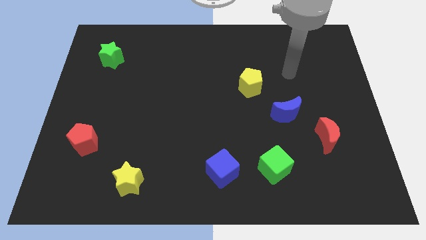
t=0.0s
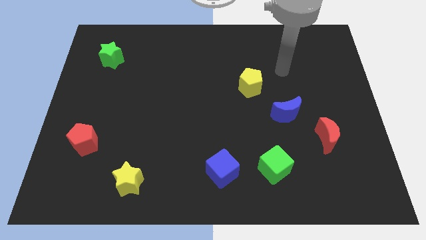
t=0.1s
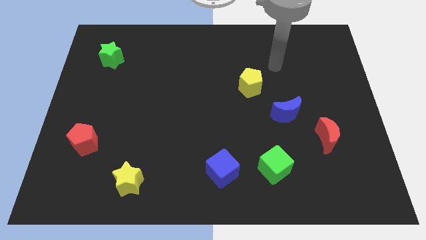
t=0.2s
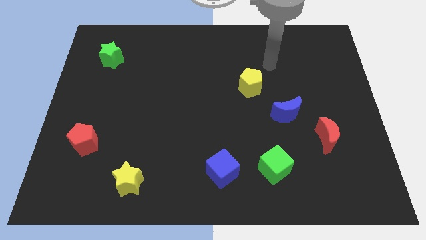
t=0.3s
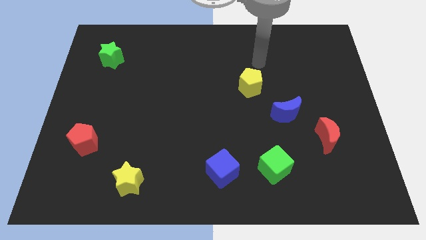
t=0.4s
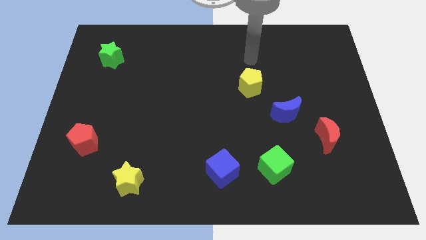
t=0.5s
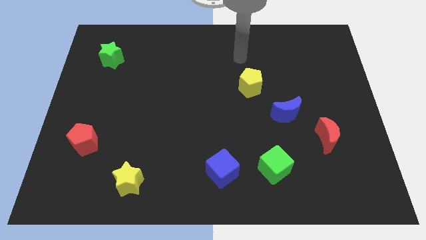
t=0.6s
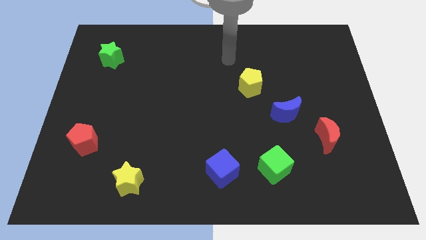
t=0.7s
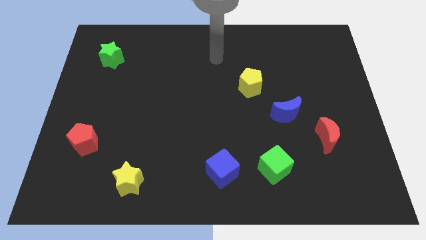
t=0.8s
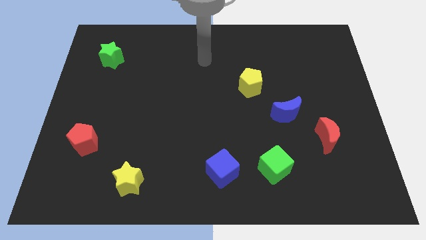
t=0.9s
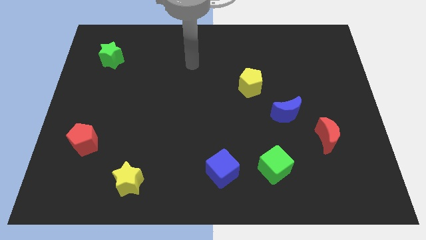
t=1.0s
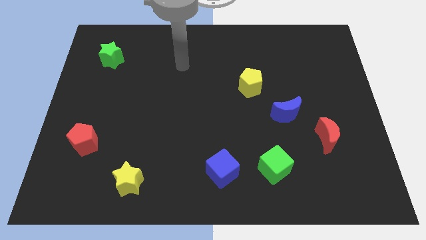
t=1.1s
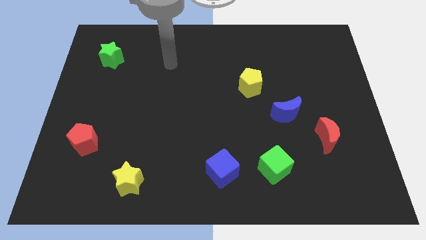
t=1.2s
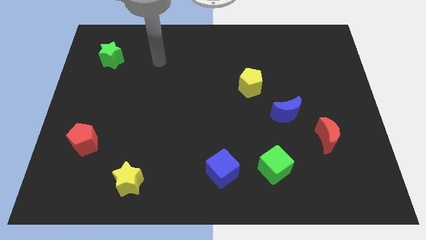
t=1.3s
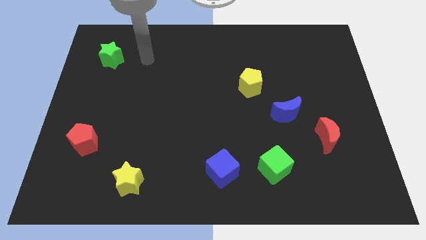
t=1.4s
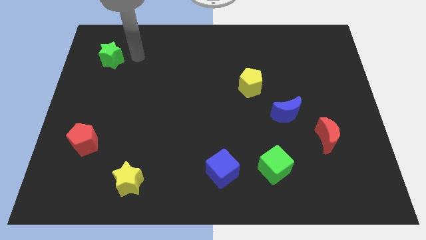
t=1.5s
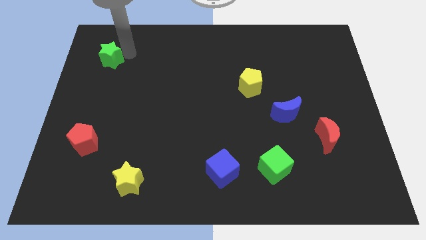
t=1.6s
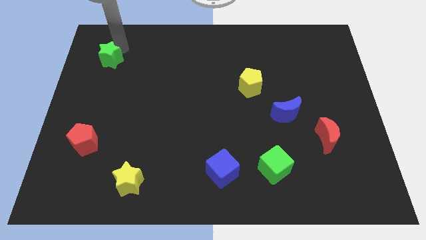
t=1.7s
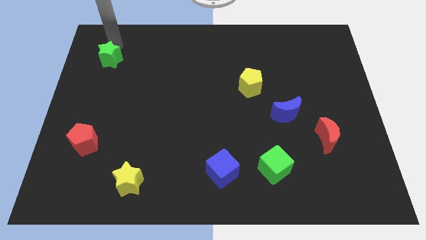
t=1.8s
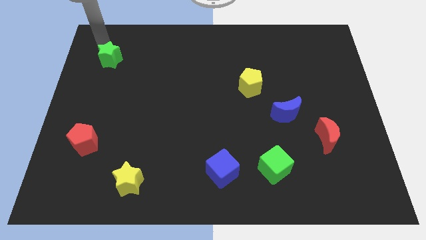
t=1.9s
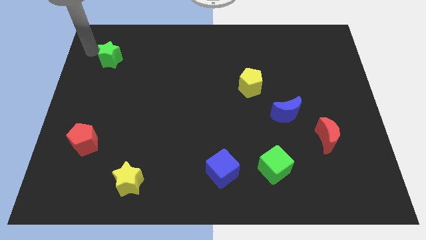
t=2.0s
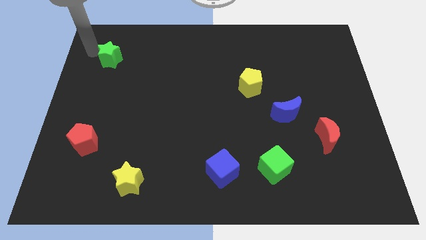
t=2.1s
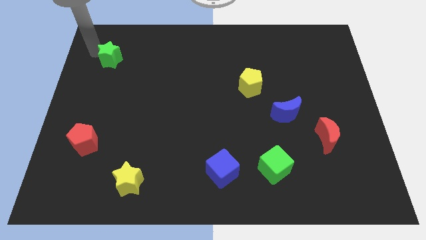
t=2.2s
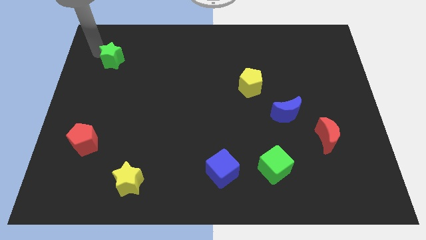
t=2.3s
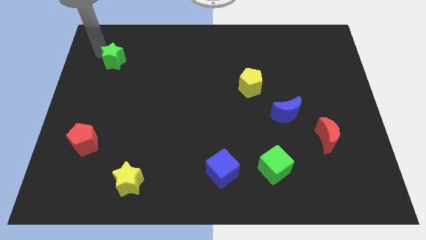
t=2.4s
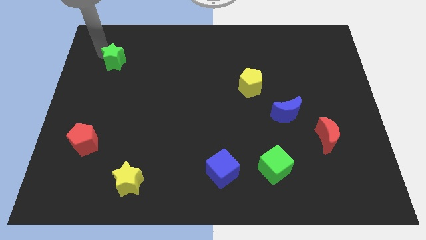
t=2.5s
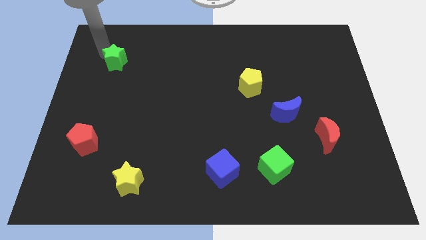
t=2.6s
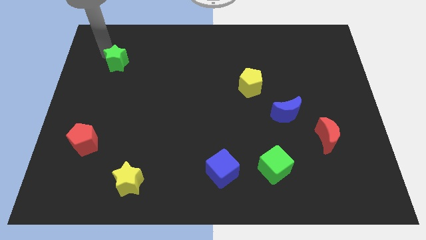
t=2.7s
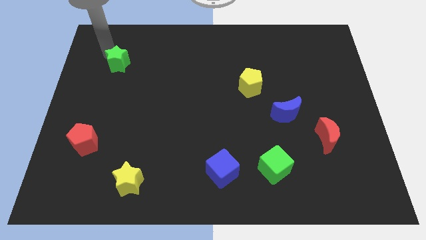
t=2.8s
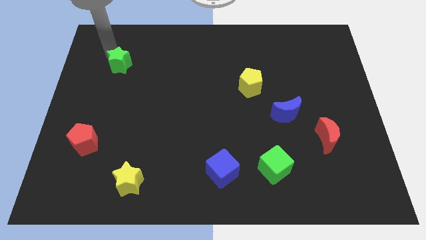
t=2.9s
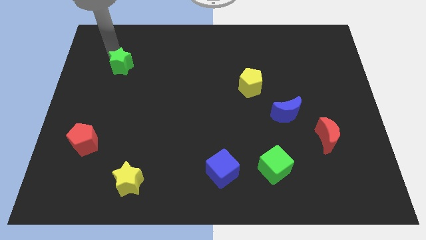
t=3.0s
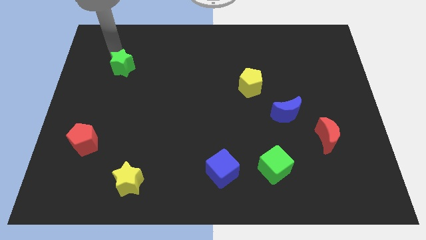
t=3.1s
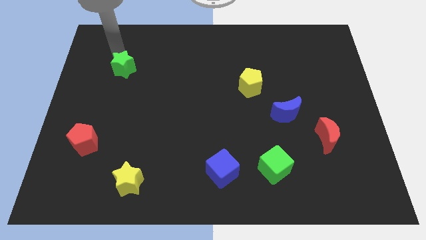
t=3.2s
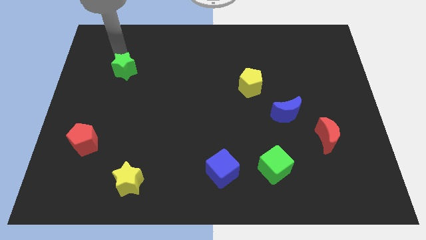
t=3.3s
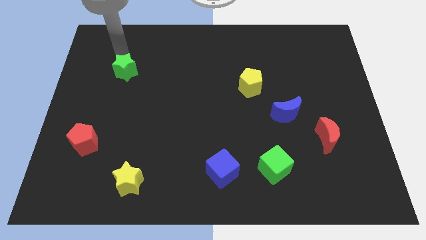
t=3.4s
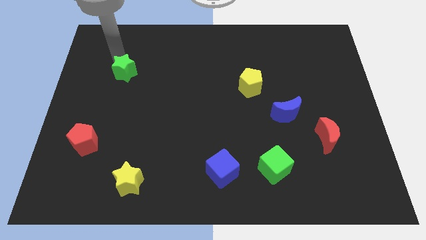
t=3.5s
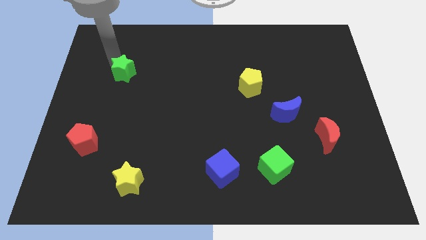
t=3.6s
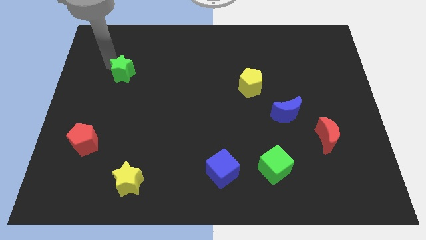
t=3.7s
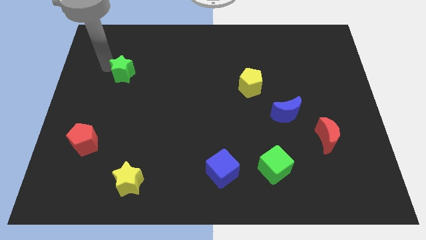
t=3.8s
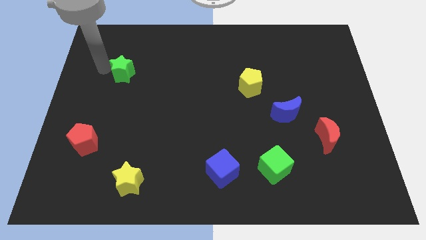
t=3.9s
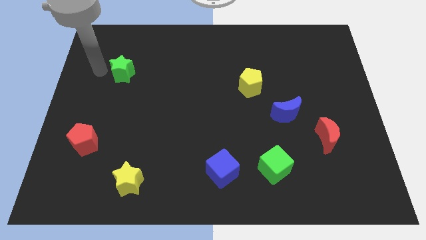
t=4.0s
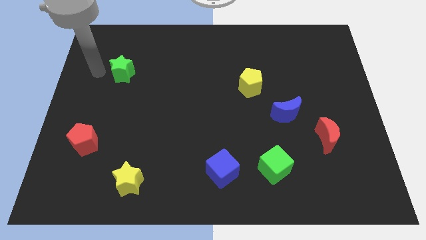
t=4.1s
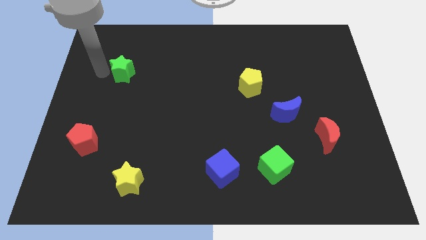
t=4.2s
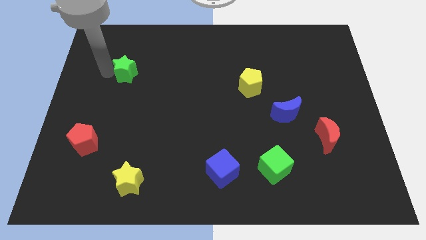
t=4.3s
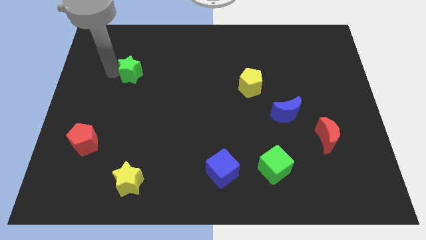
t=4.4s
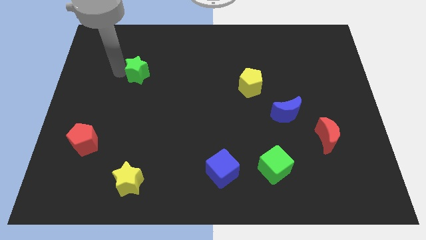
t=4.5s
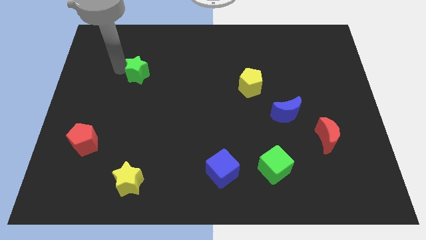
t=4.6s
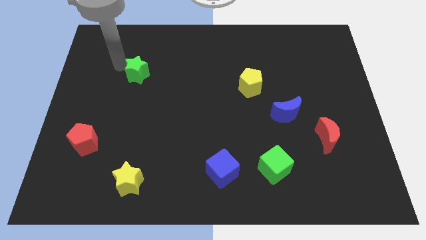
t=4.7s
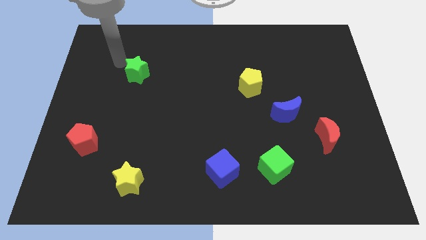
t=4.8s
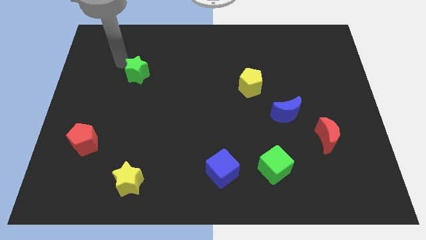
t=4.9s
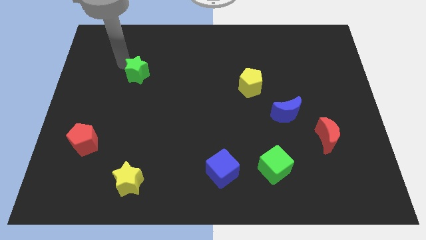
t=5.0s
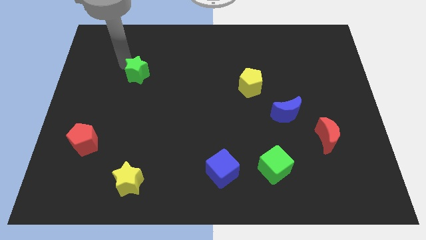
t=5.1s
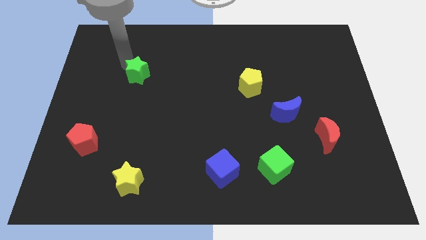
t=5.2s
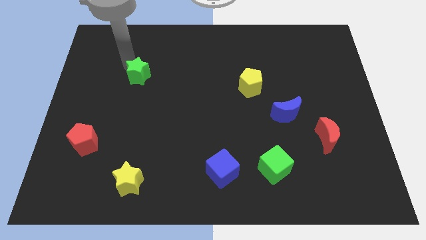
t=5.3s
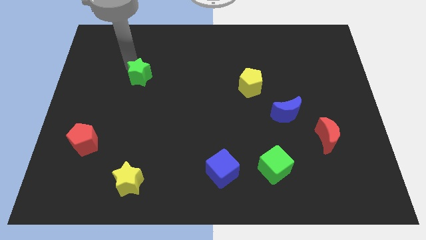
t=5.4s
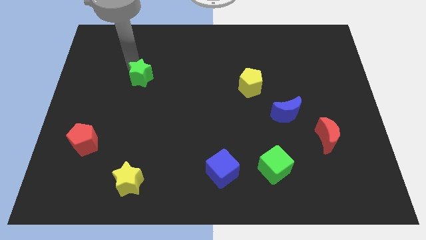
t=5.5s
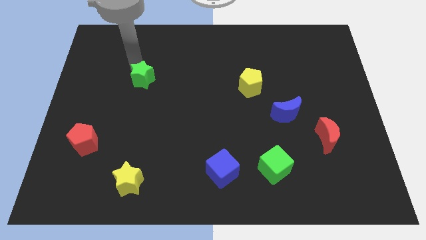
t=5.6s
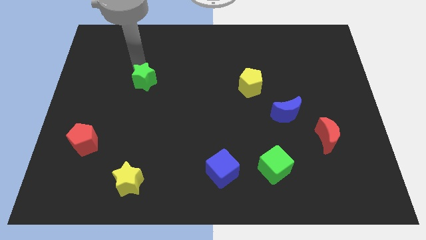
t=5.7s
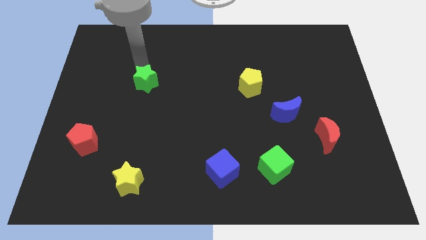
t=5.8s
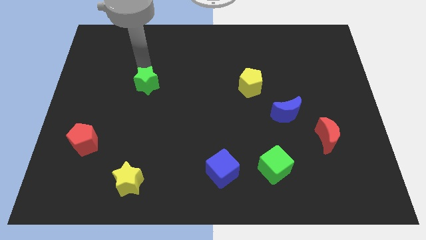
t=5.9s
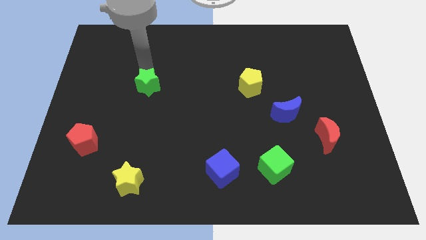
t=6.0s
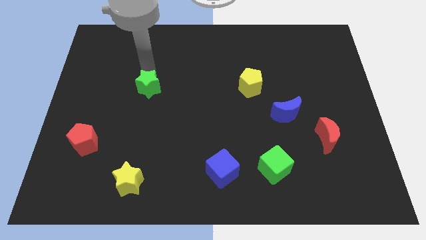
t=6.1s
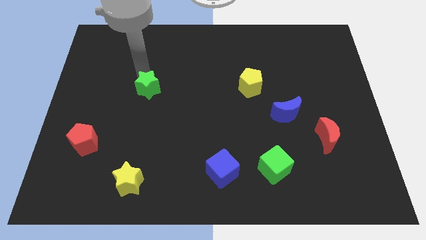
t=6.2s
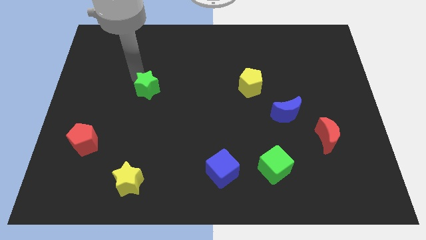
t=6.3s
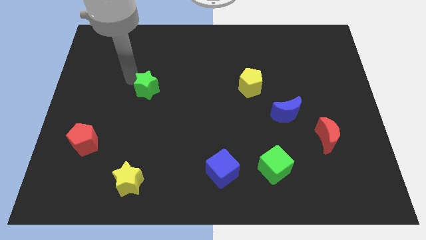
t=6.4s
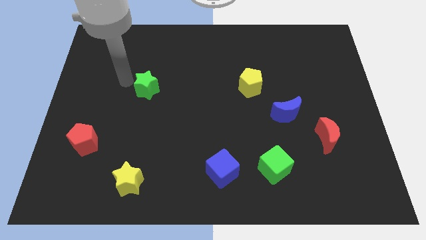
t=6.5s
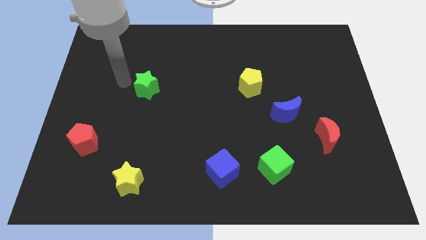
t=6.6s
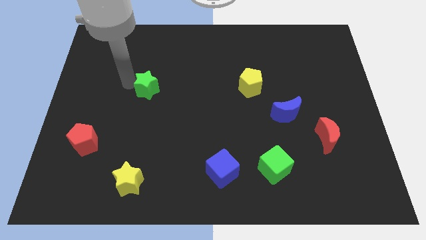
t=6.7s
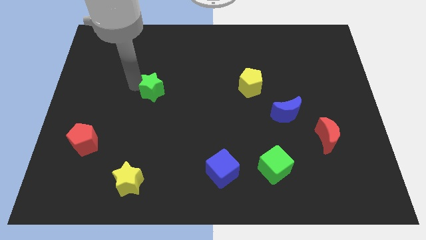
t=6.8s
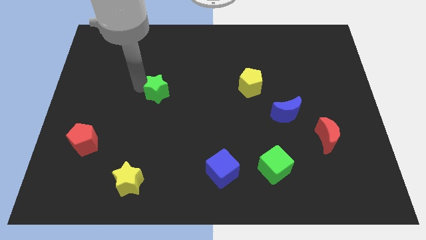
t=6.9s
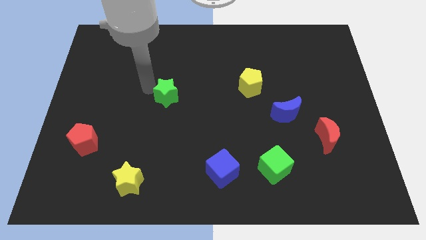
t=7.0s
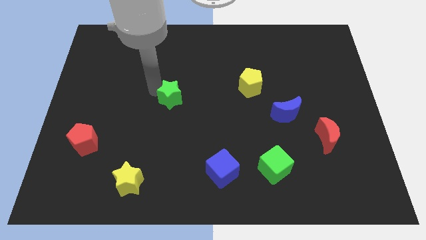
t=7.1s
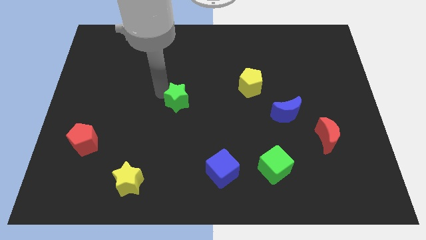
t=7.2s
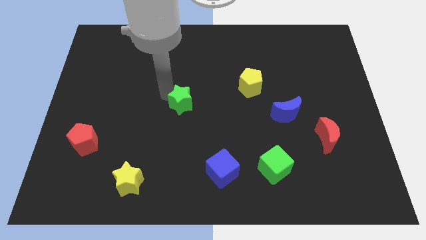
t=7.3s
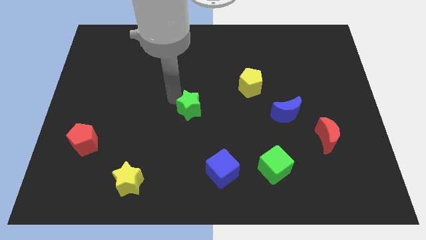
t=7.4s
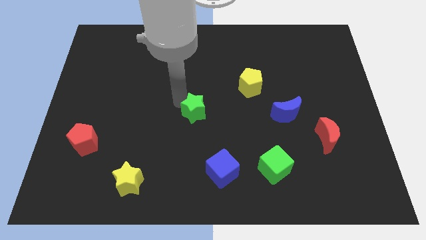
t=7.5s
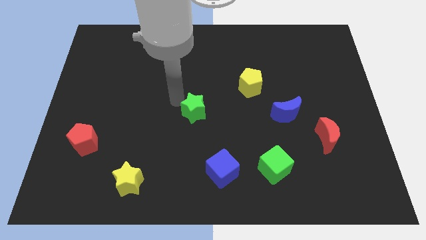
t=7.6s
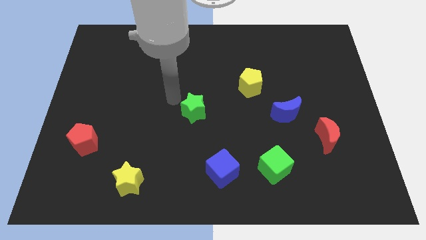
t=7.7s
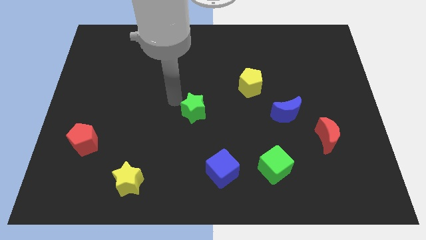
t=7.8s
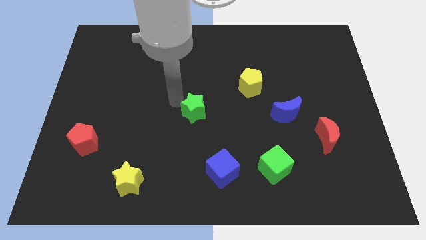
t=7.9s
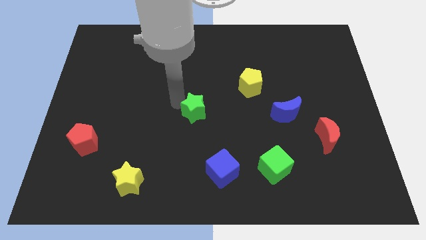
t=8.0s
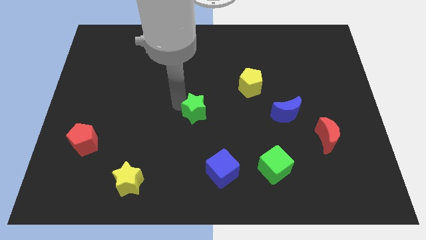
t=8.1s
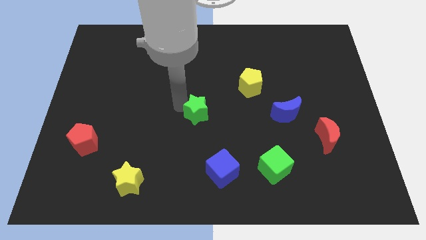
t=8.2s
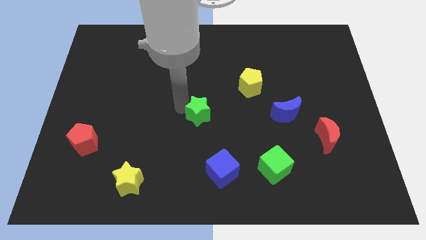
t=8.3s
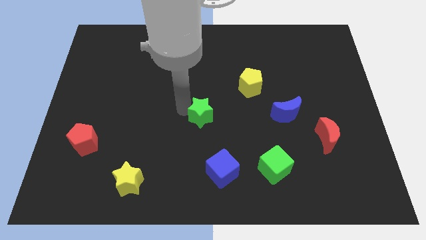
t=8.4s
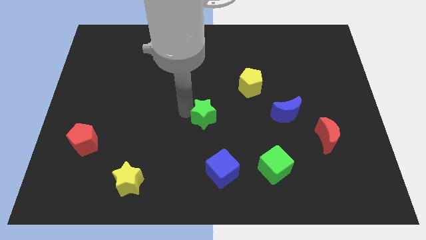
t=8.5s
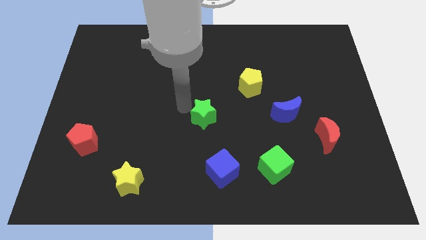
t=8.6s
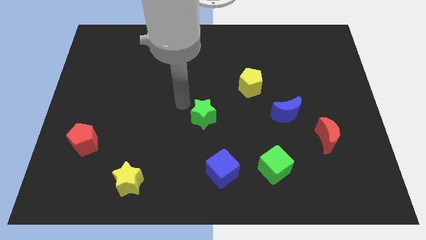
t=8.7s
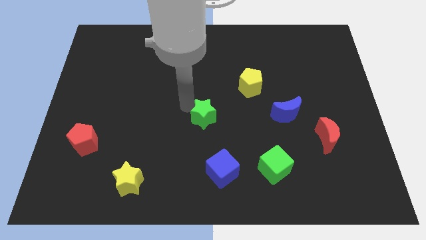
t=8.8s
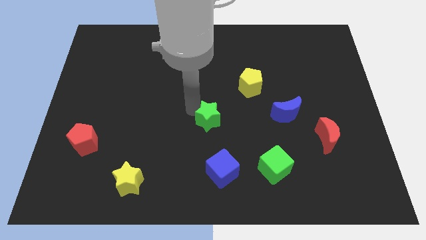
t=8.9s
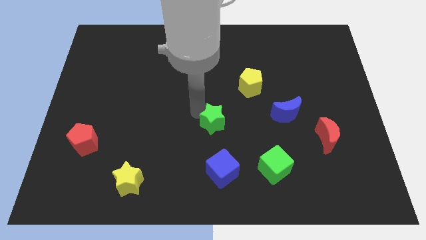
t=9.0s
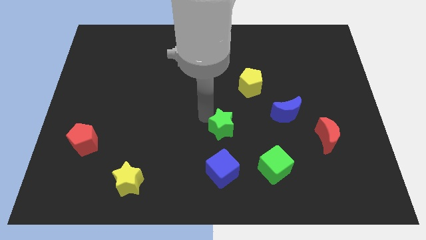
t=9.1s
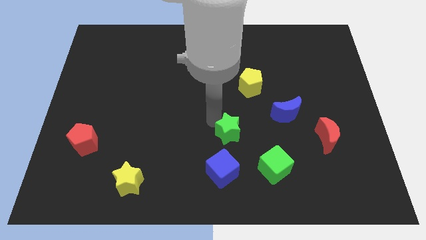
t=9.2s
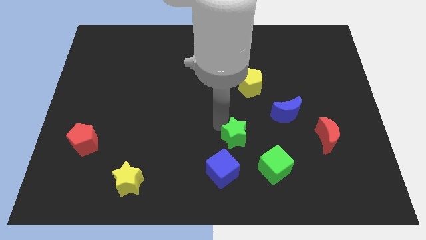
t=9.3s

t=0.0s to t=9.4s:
slide the green star diagonally up and to the right of the blue cube
